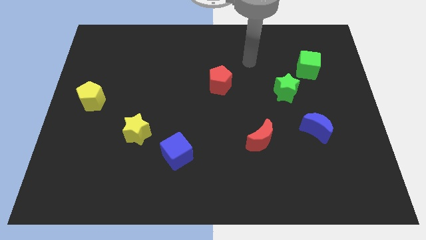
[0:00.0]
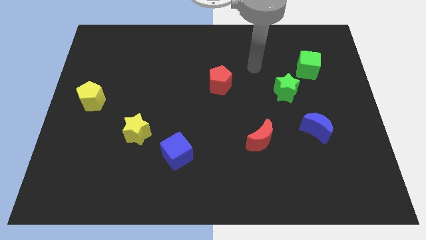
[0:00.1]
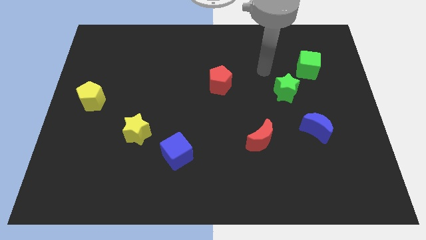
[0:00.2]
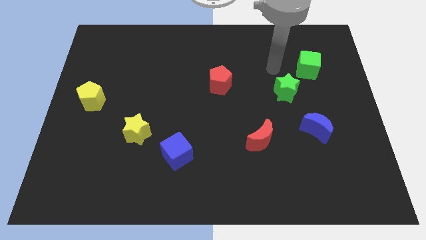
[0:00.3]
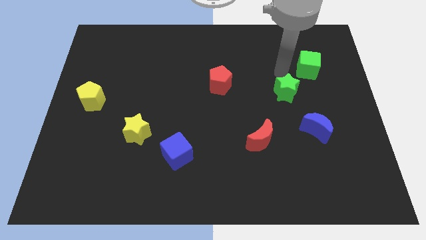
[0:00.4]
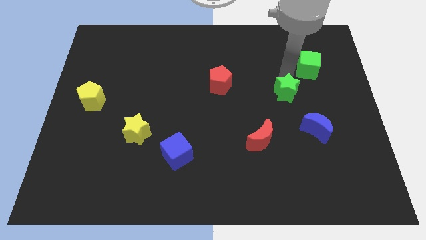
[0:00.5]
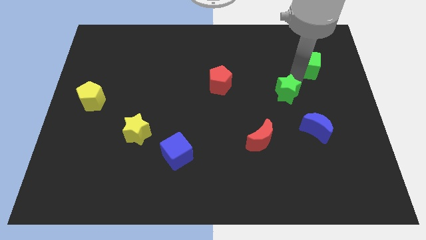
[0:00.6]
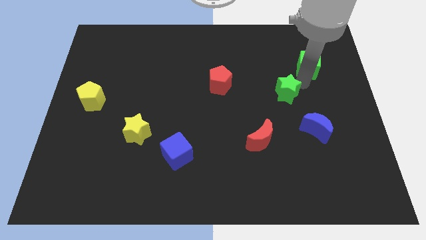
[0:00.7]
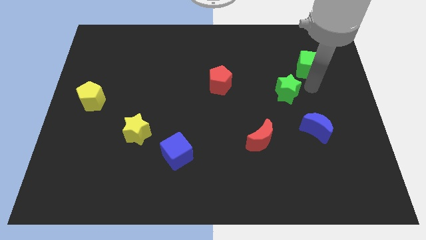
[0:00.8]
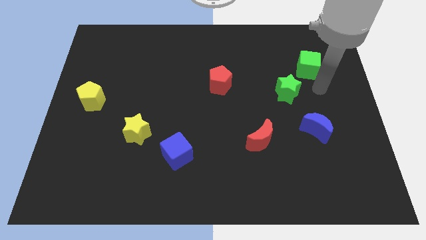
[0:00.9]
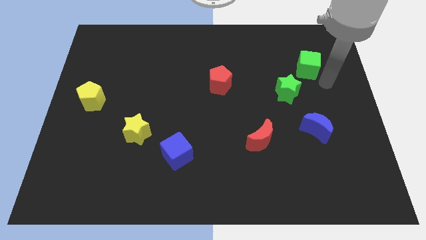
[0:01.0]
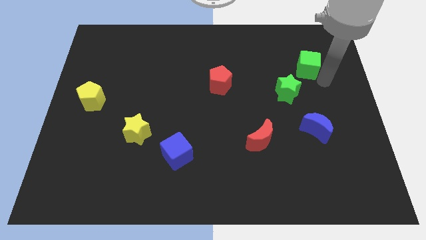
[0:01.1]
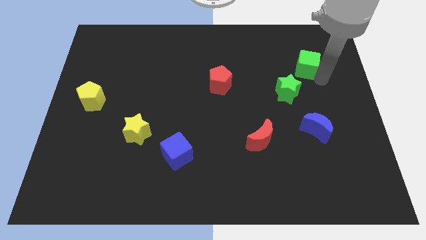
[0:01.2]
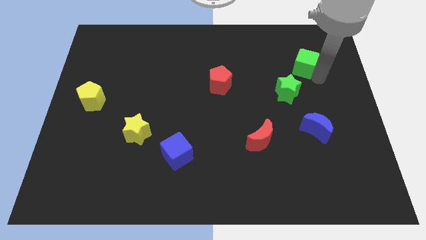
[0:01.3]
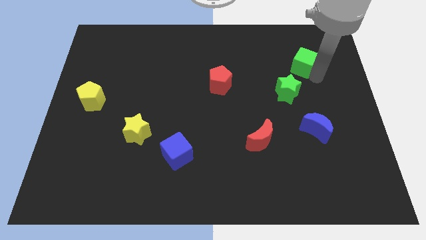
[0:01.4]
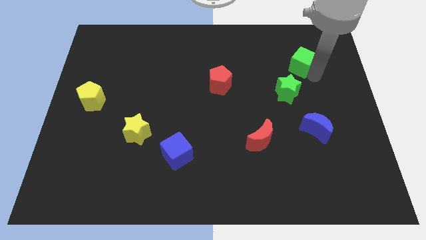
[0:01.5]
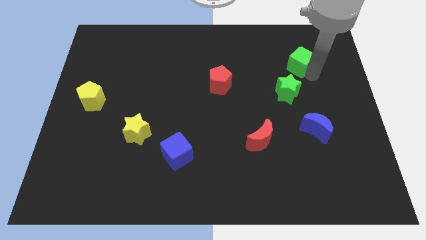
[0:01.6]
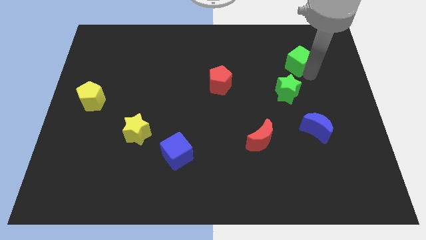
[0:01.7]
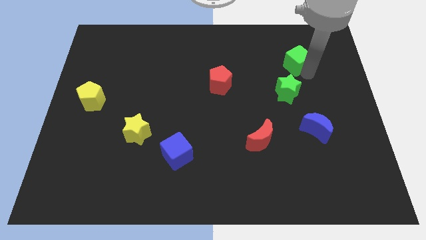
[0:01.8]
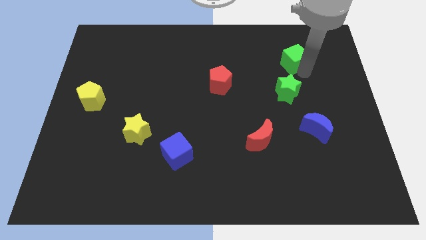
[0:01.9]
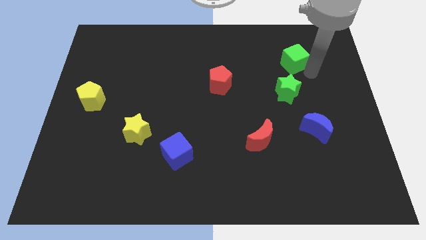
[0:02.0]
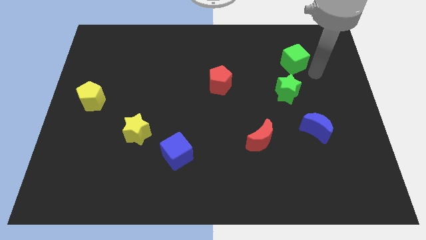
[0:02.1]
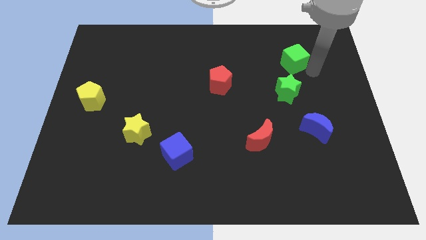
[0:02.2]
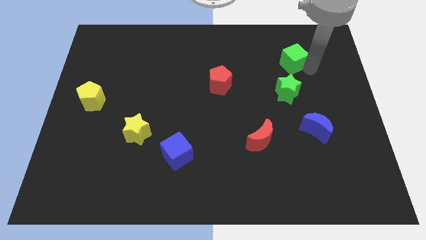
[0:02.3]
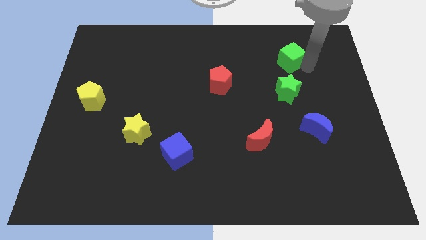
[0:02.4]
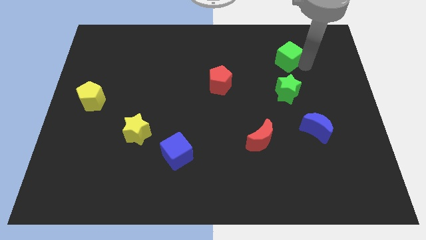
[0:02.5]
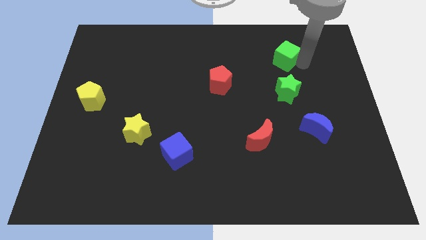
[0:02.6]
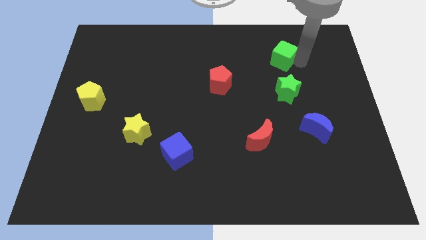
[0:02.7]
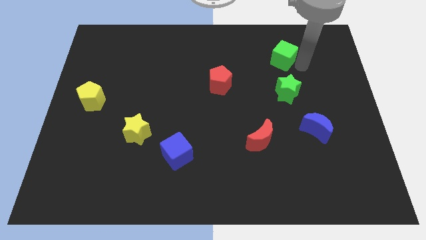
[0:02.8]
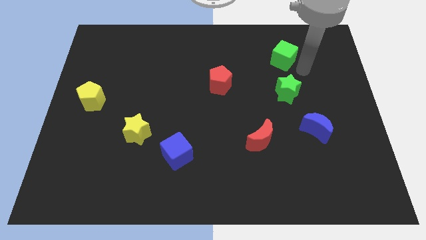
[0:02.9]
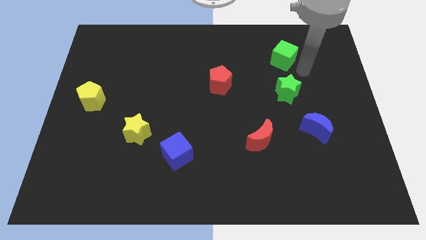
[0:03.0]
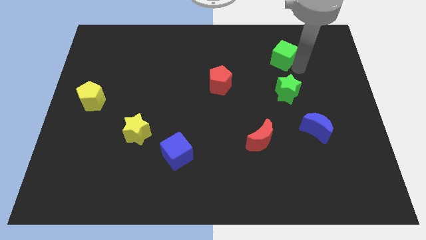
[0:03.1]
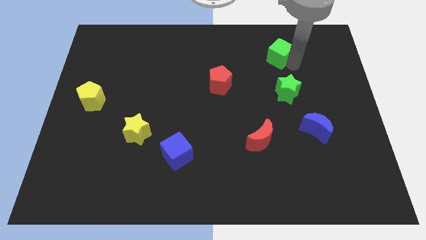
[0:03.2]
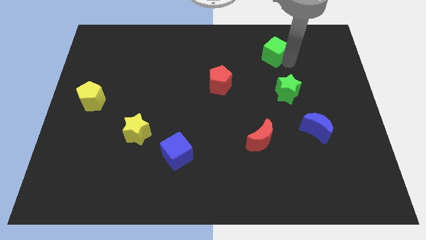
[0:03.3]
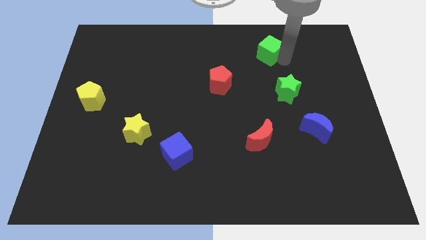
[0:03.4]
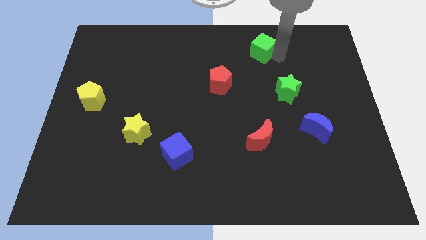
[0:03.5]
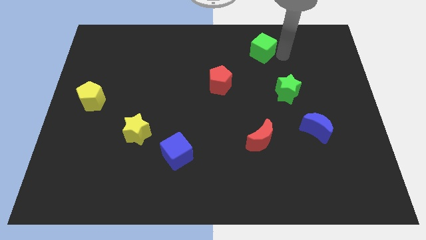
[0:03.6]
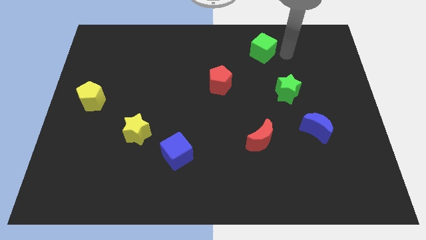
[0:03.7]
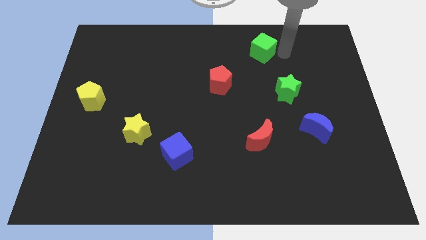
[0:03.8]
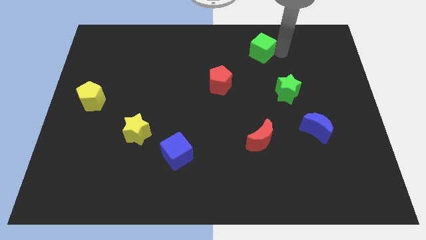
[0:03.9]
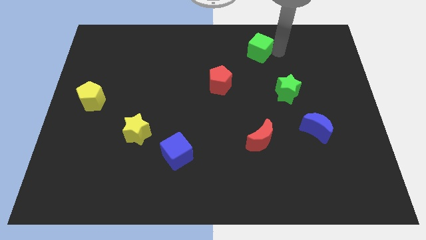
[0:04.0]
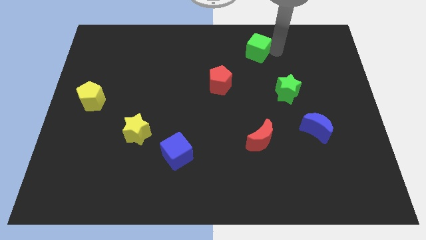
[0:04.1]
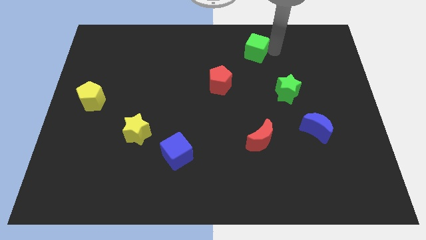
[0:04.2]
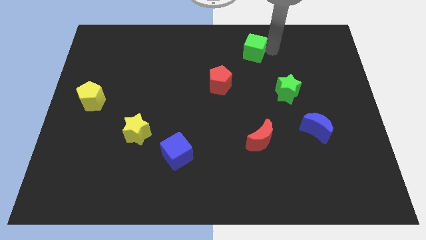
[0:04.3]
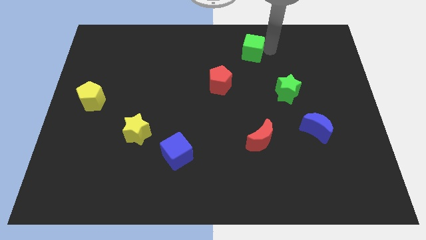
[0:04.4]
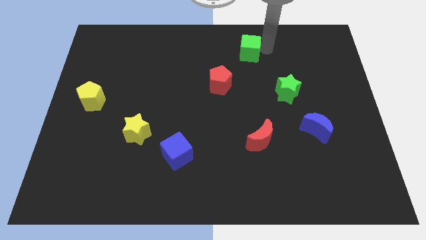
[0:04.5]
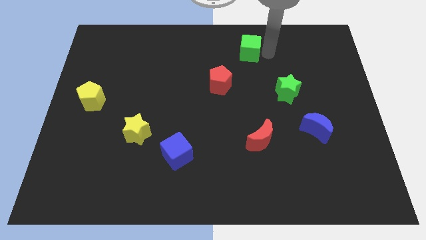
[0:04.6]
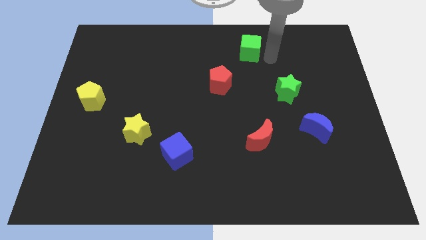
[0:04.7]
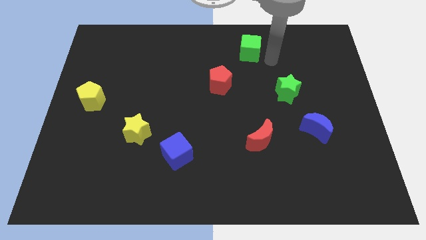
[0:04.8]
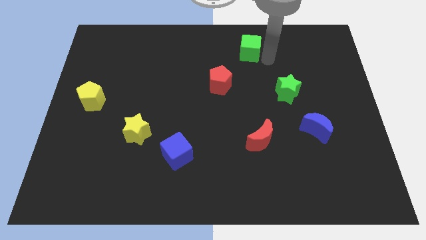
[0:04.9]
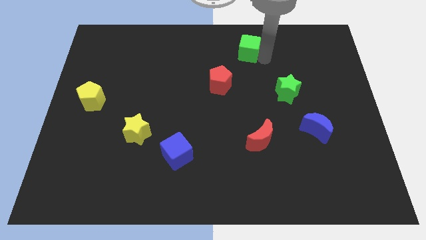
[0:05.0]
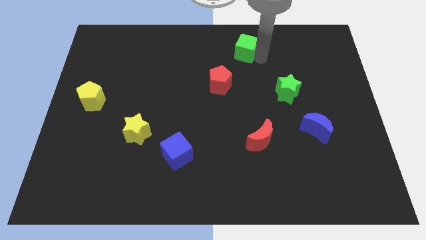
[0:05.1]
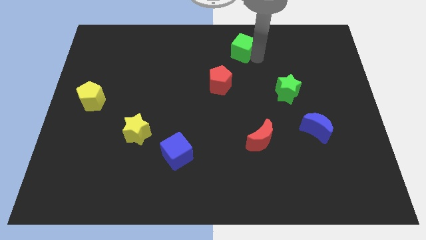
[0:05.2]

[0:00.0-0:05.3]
move the green cube to the top
